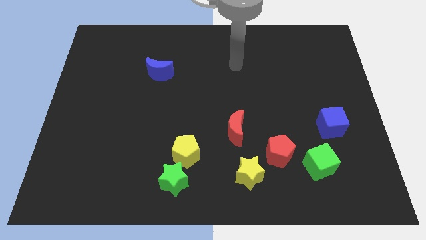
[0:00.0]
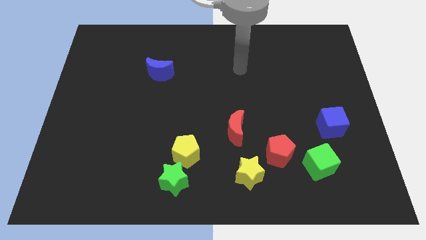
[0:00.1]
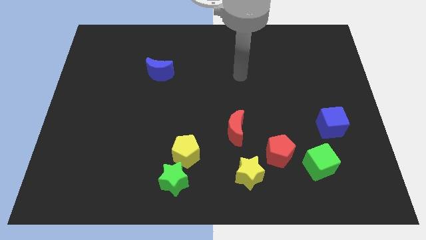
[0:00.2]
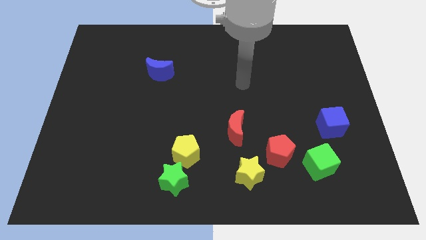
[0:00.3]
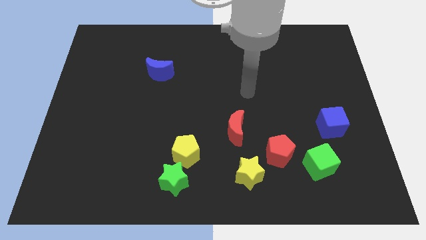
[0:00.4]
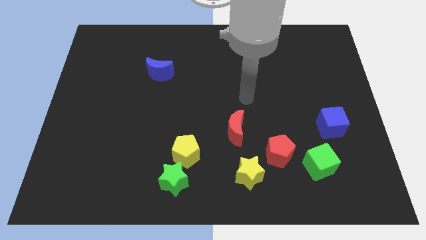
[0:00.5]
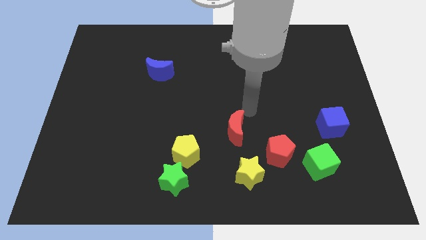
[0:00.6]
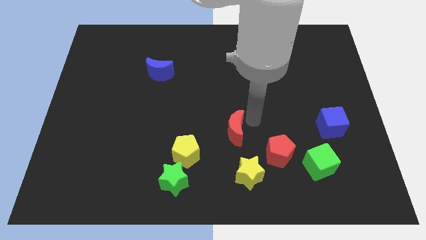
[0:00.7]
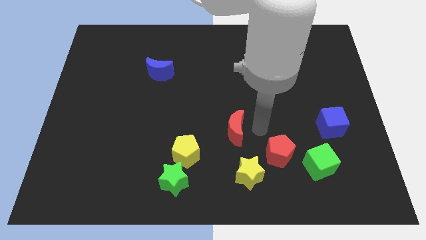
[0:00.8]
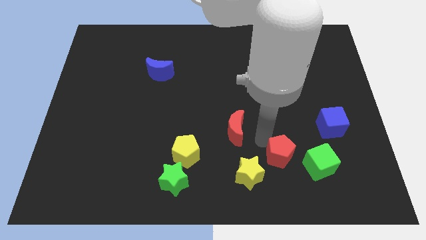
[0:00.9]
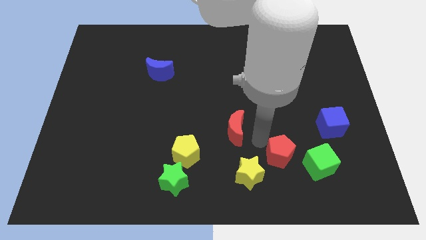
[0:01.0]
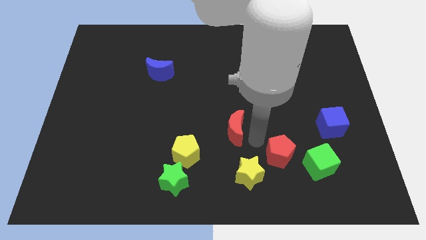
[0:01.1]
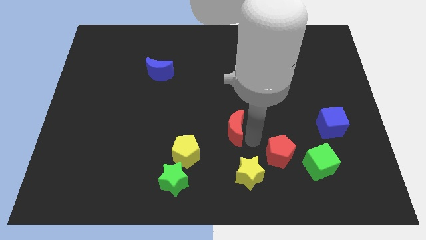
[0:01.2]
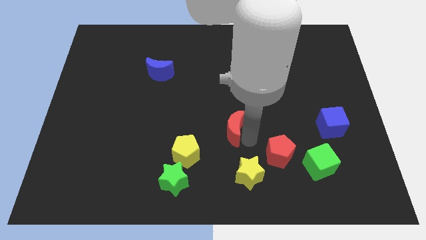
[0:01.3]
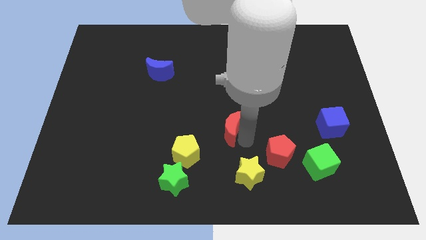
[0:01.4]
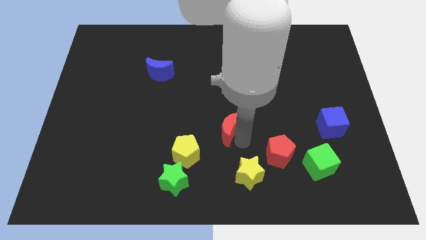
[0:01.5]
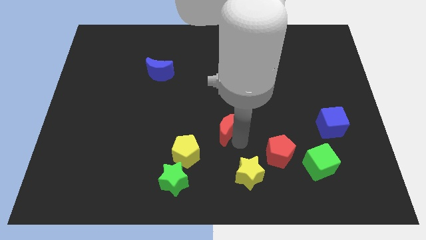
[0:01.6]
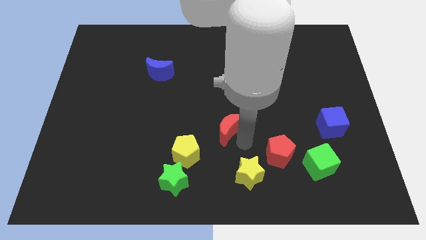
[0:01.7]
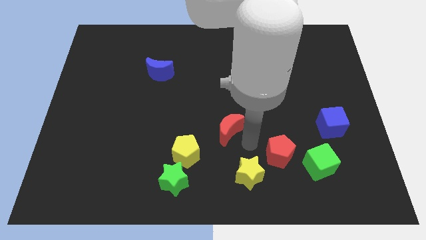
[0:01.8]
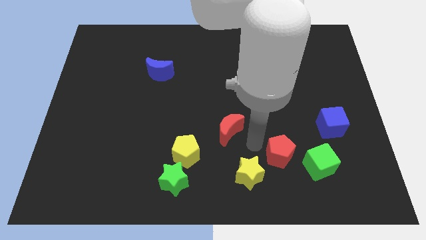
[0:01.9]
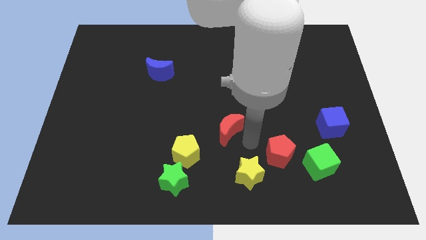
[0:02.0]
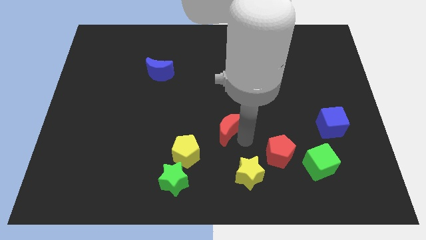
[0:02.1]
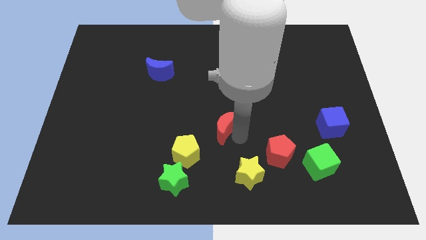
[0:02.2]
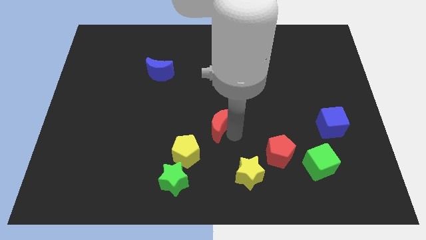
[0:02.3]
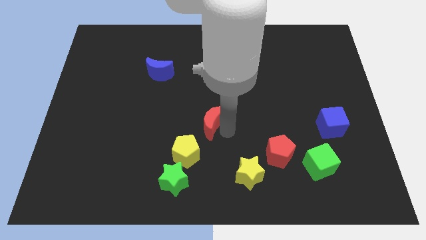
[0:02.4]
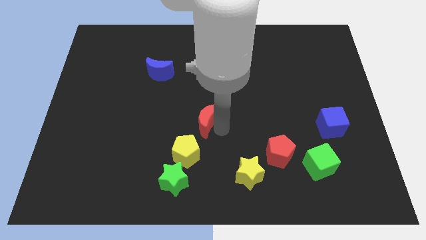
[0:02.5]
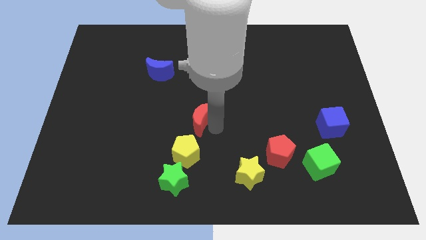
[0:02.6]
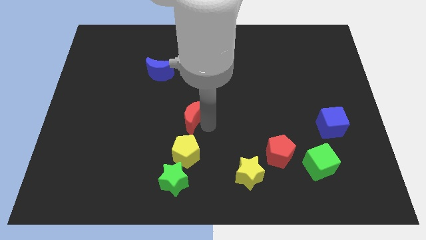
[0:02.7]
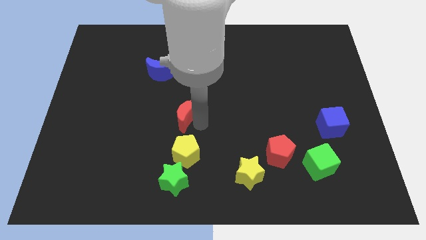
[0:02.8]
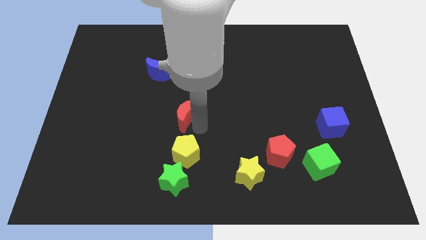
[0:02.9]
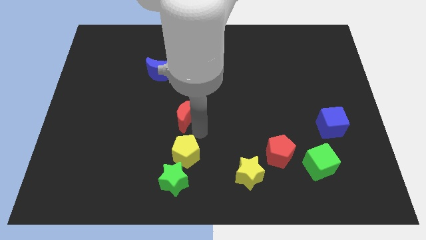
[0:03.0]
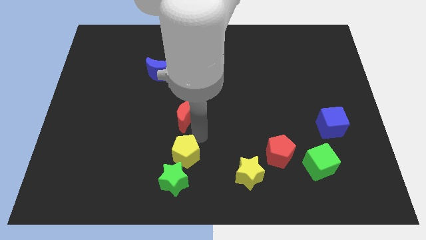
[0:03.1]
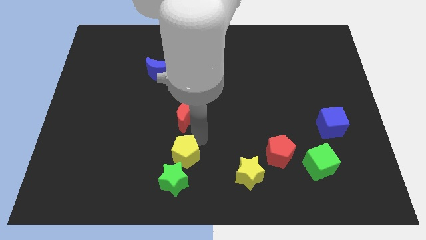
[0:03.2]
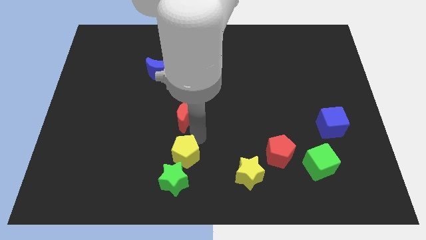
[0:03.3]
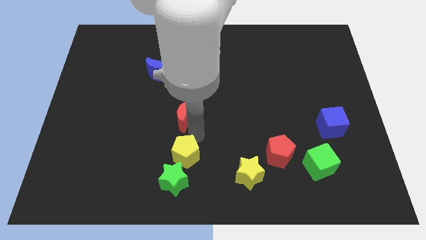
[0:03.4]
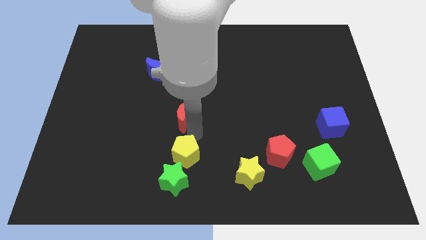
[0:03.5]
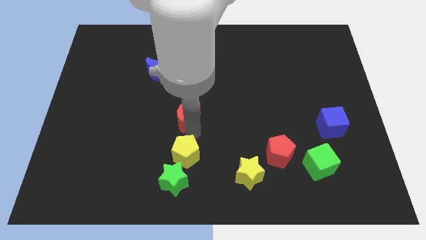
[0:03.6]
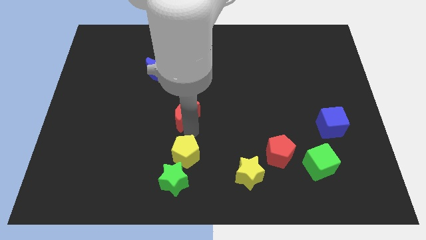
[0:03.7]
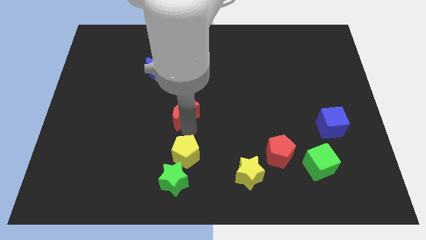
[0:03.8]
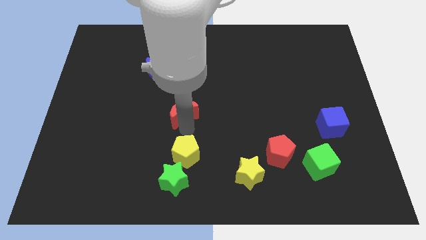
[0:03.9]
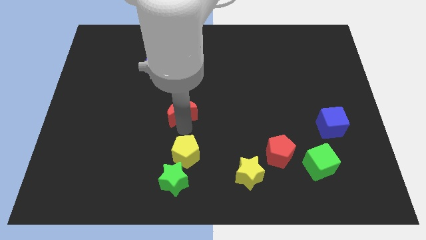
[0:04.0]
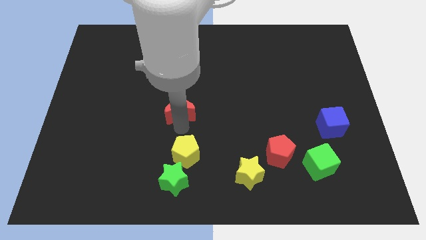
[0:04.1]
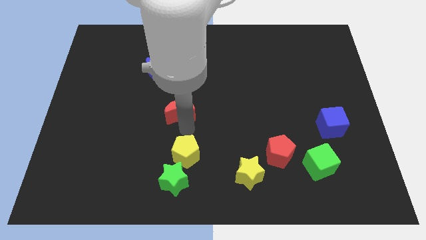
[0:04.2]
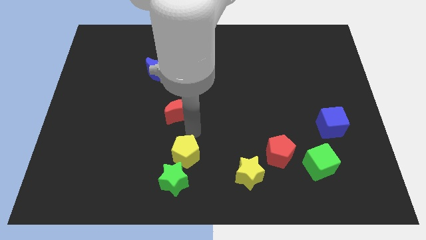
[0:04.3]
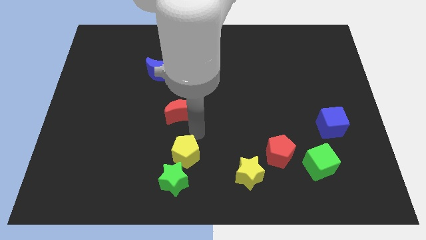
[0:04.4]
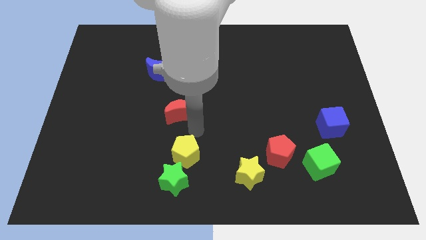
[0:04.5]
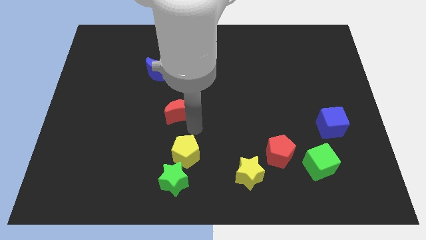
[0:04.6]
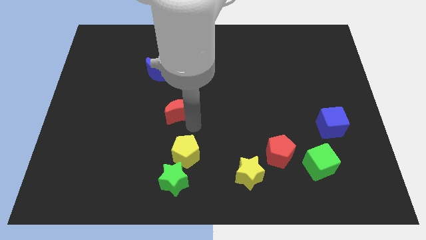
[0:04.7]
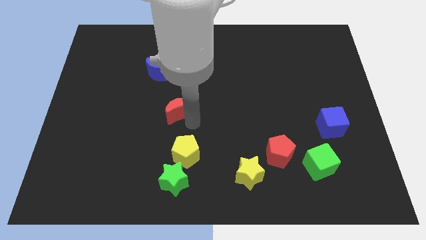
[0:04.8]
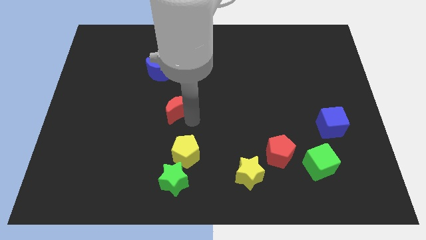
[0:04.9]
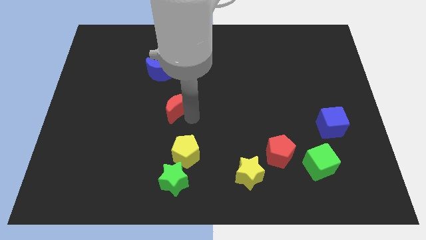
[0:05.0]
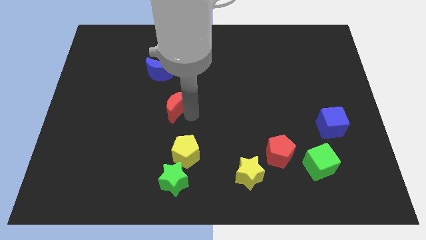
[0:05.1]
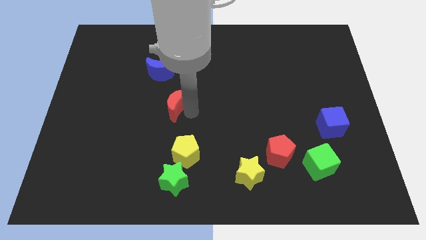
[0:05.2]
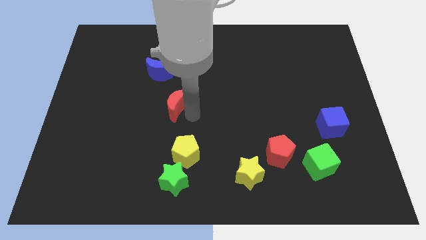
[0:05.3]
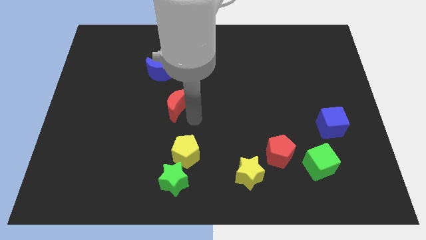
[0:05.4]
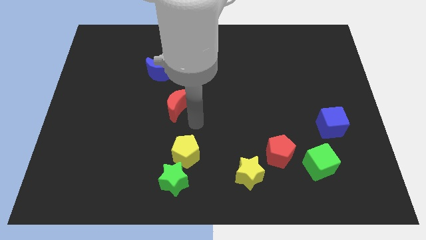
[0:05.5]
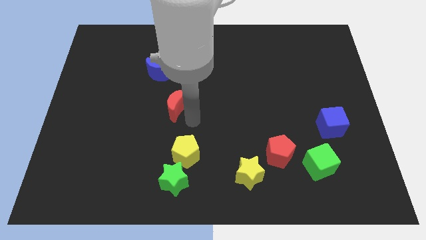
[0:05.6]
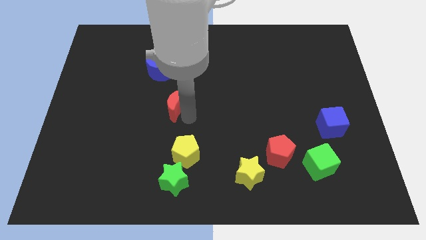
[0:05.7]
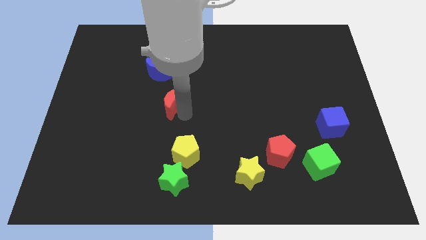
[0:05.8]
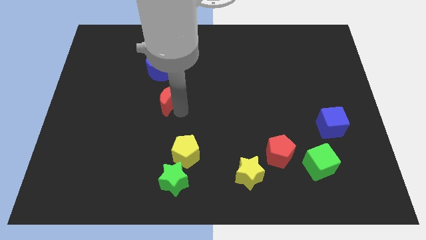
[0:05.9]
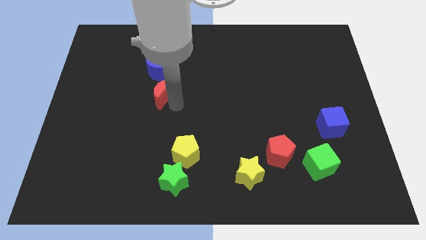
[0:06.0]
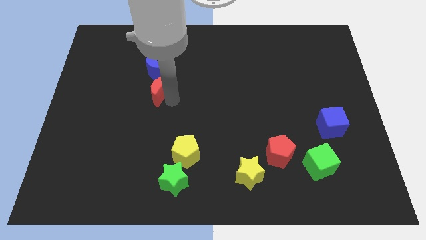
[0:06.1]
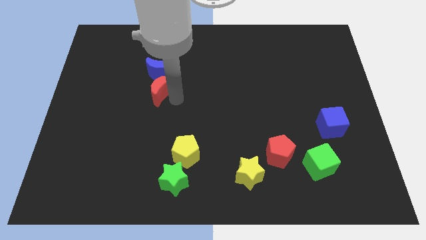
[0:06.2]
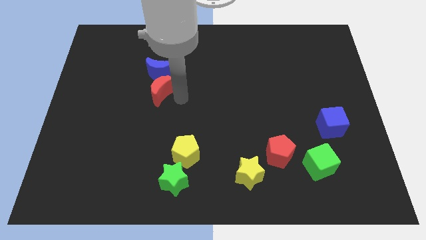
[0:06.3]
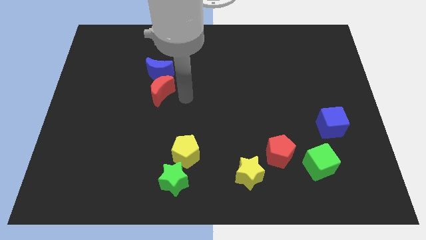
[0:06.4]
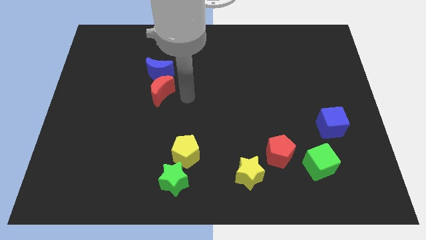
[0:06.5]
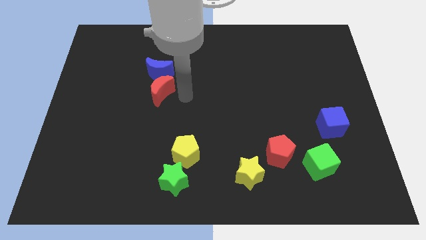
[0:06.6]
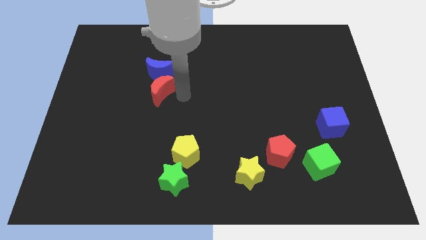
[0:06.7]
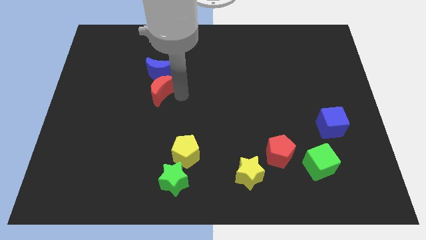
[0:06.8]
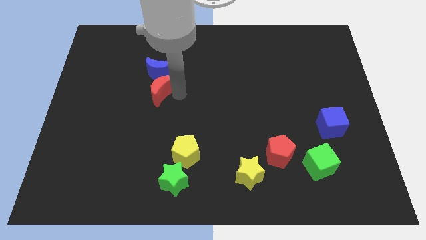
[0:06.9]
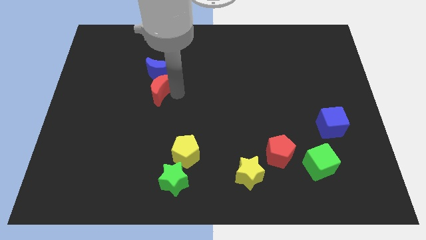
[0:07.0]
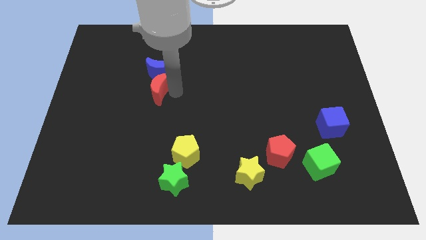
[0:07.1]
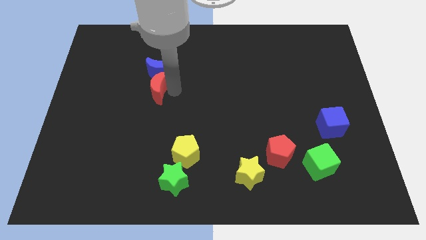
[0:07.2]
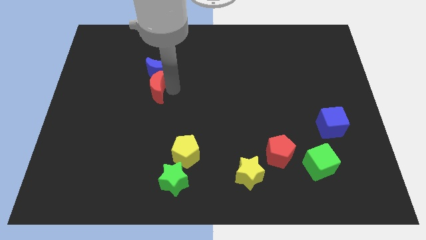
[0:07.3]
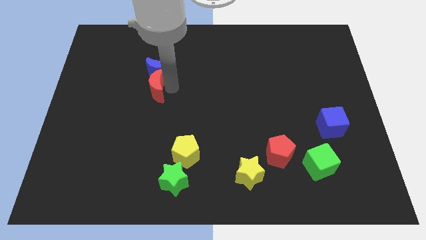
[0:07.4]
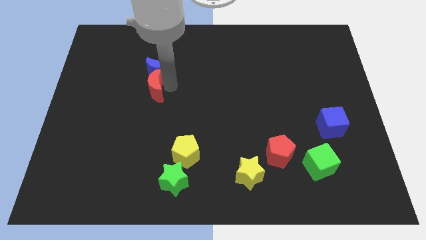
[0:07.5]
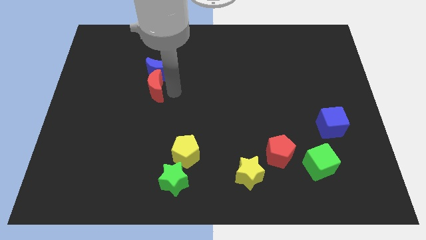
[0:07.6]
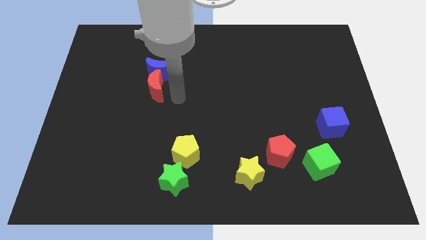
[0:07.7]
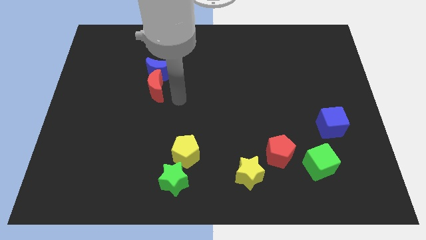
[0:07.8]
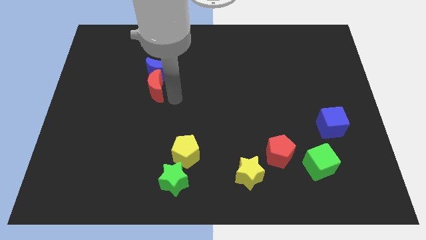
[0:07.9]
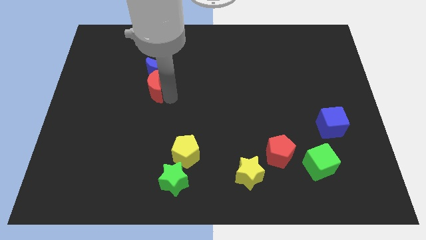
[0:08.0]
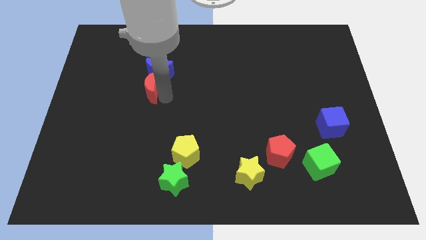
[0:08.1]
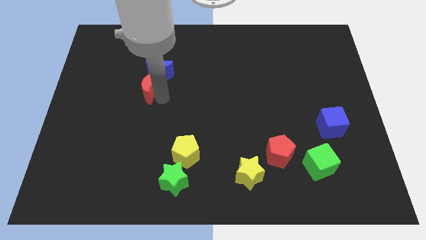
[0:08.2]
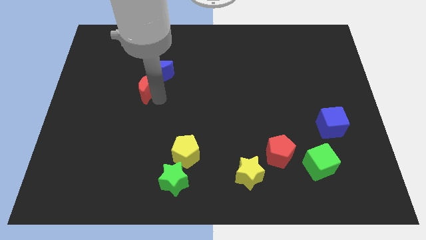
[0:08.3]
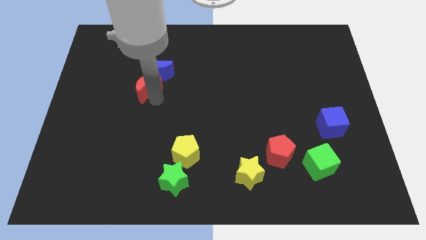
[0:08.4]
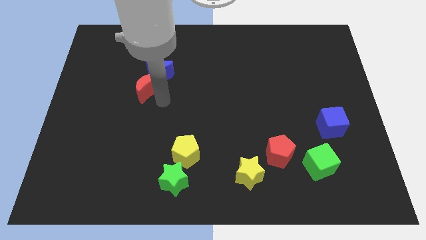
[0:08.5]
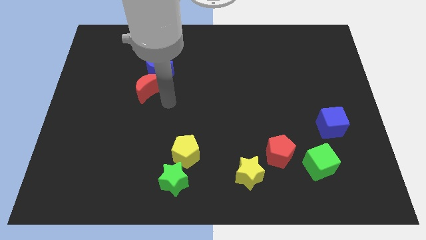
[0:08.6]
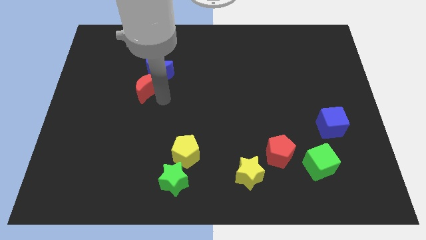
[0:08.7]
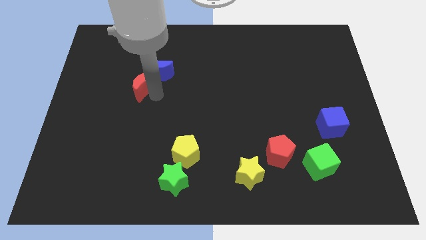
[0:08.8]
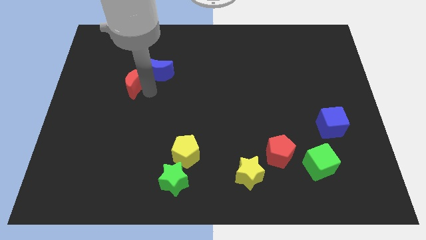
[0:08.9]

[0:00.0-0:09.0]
put the red moon just left of the blue moon
